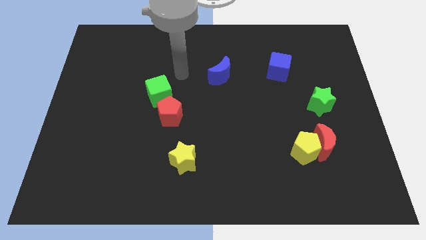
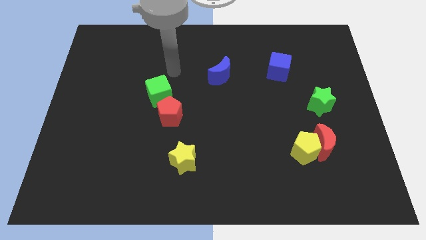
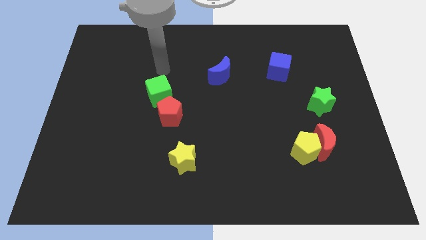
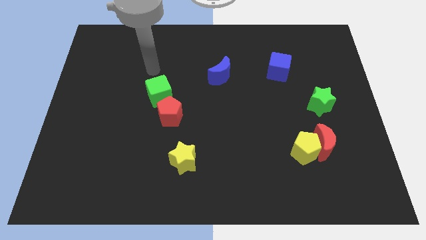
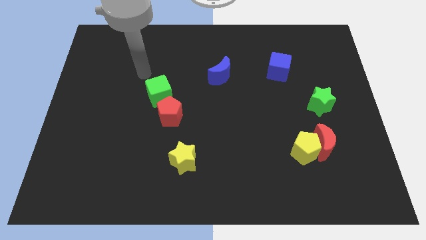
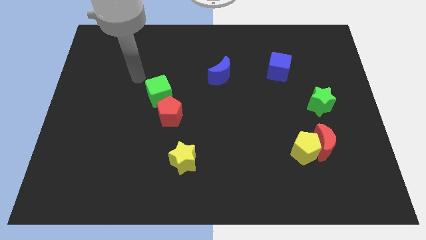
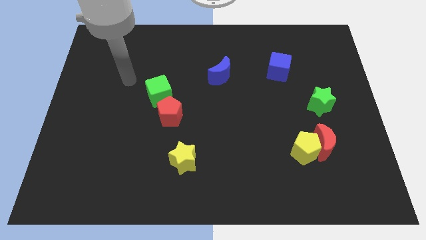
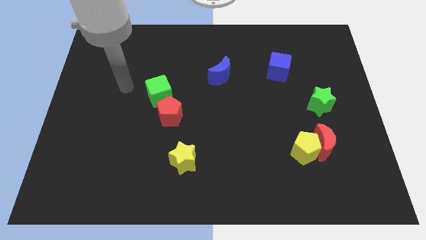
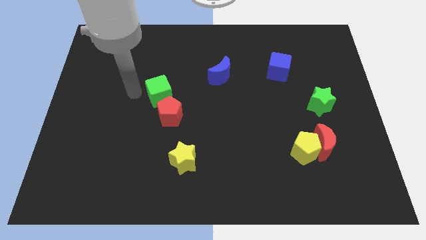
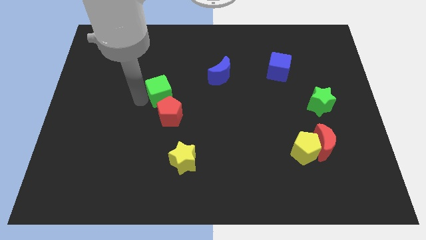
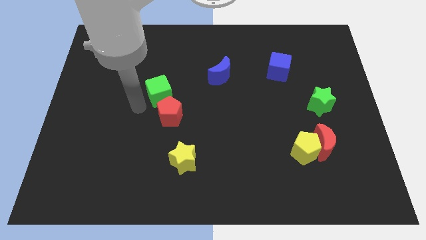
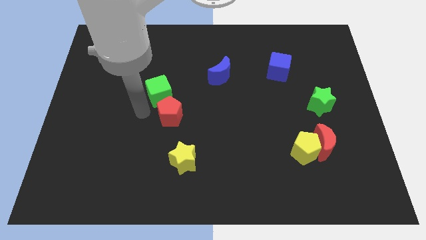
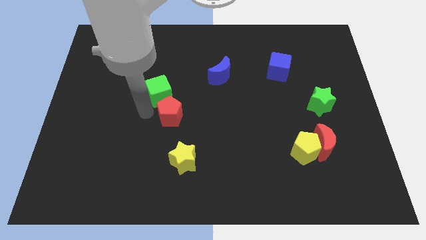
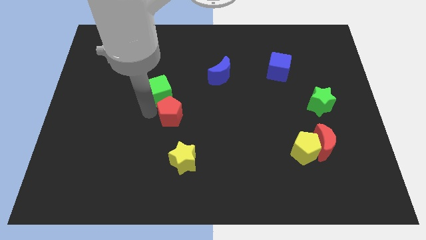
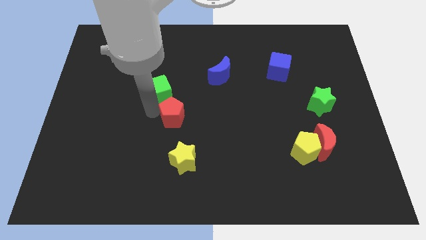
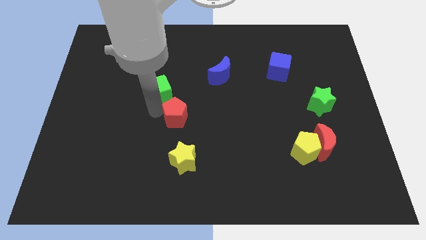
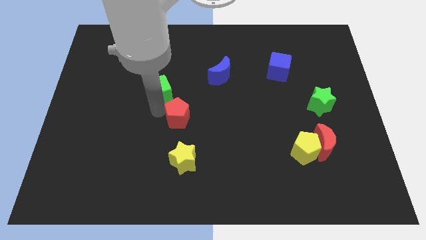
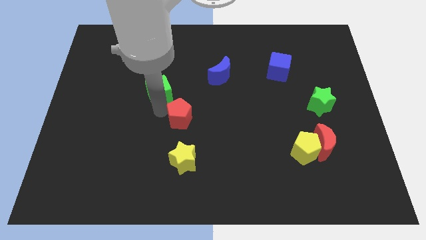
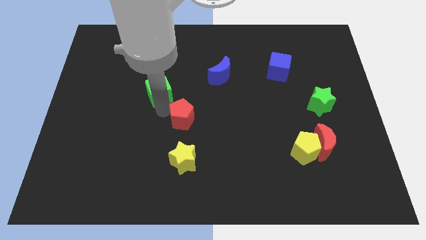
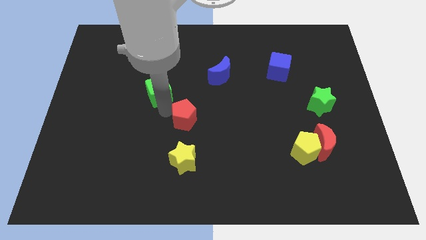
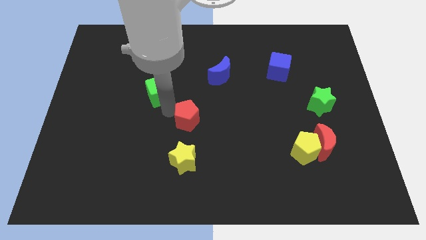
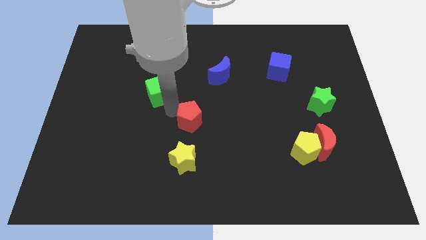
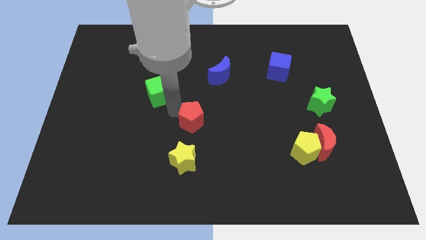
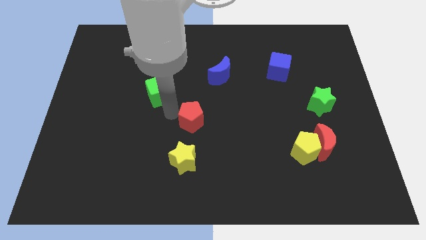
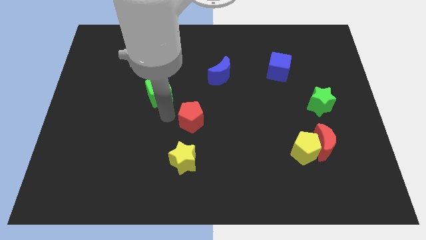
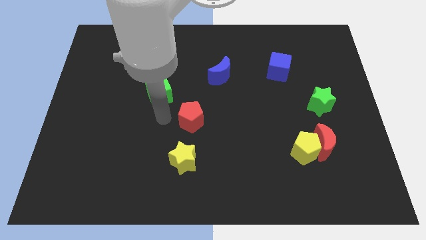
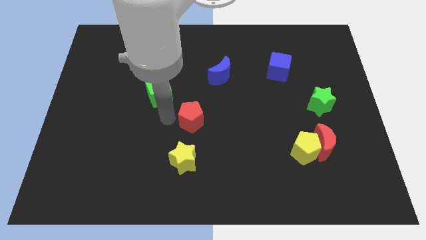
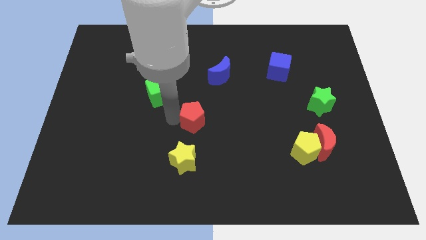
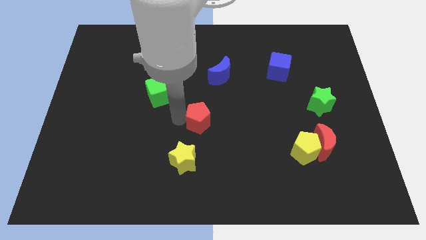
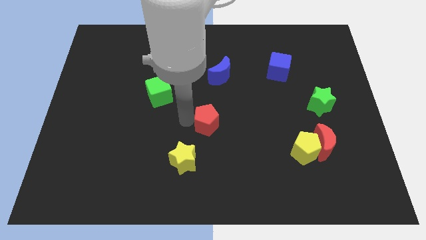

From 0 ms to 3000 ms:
push the red pentagon to the right a little bit

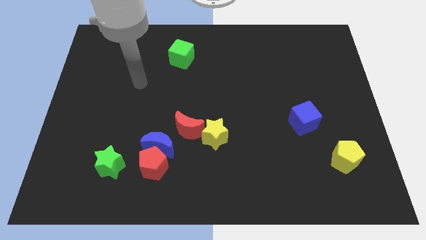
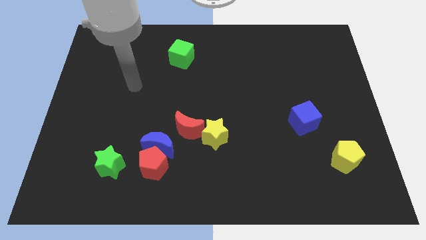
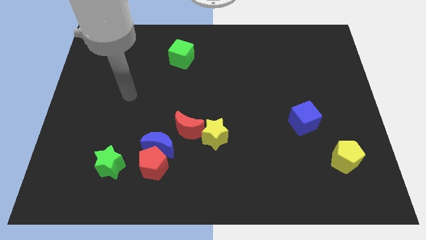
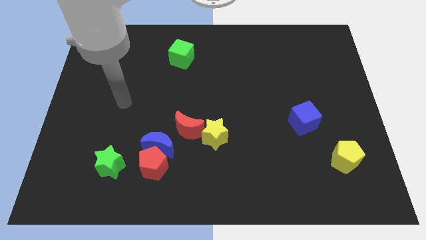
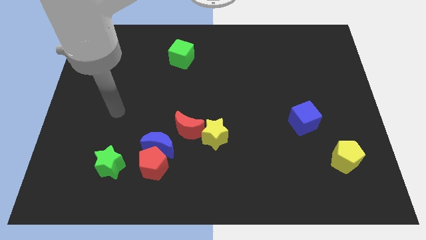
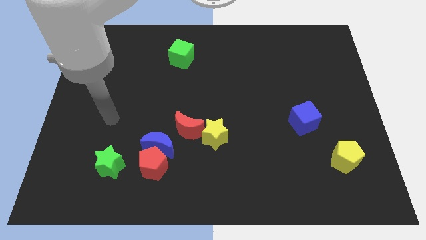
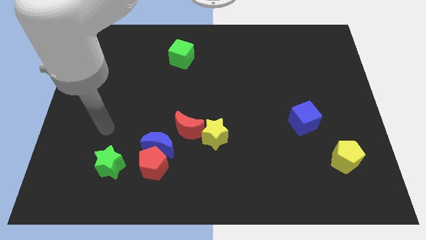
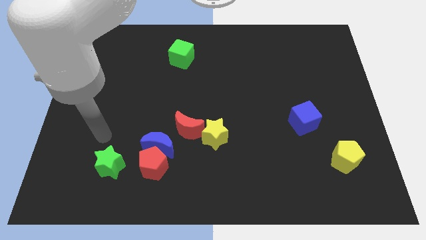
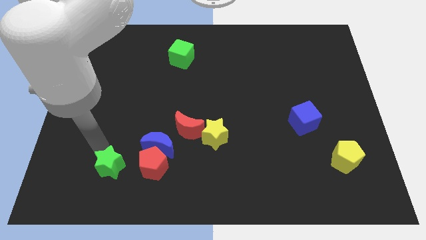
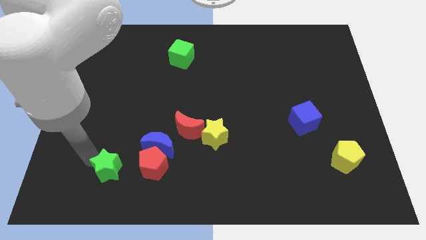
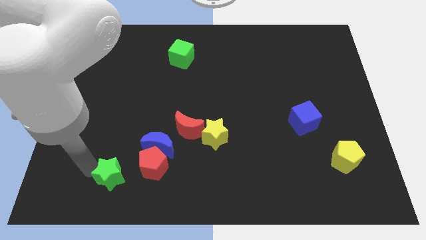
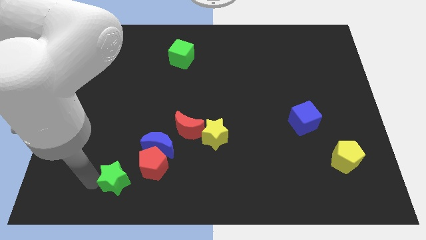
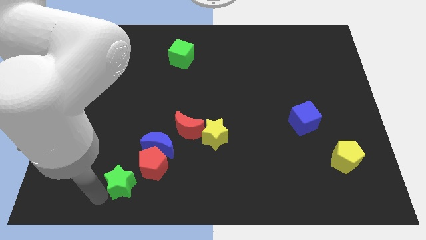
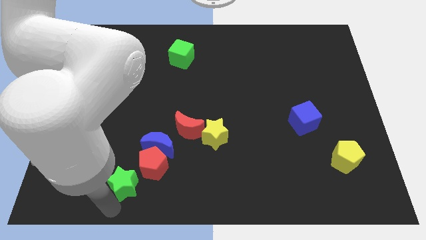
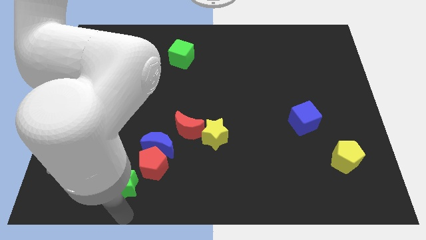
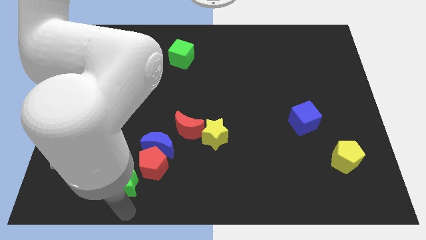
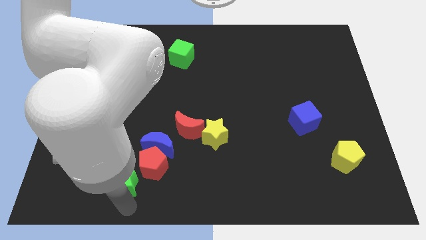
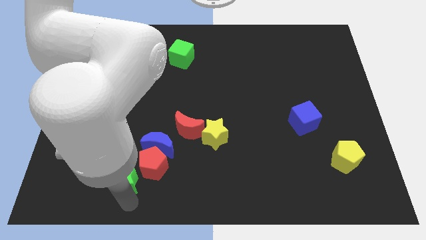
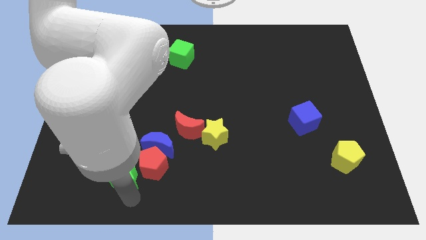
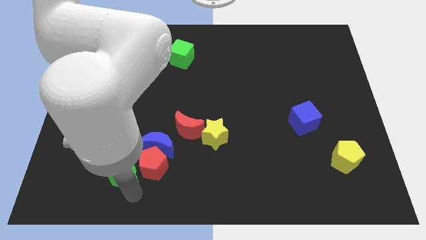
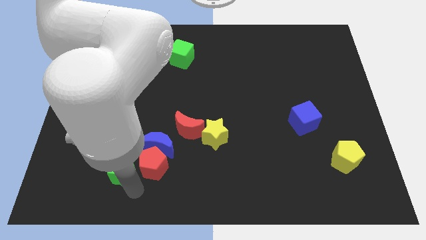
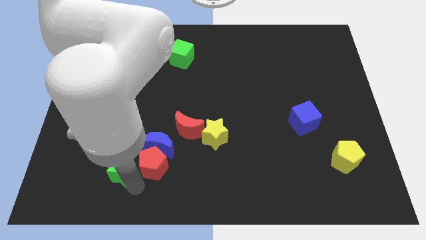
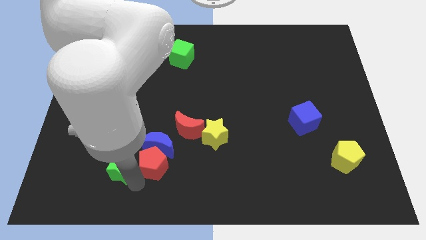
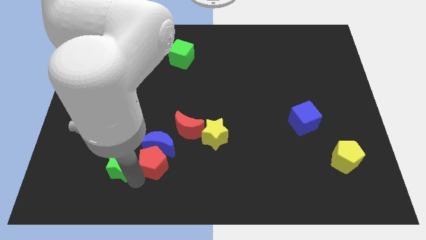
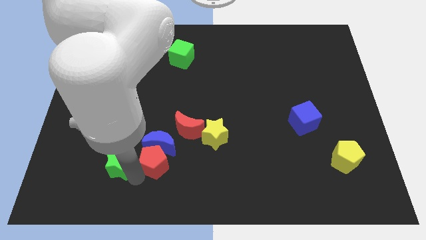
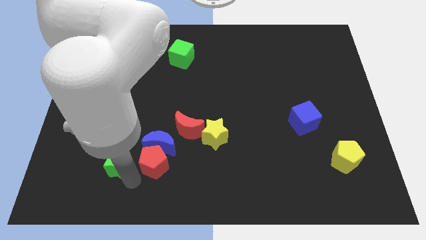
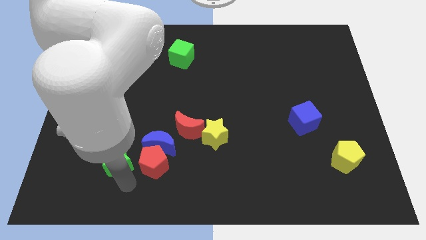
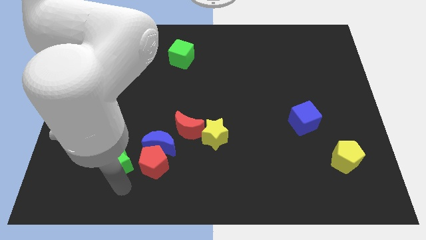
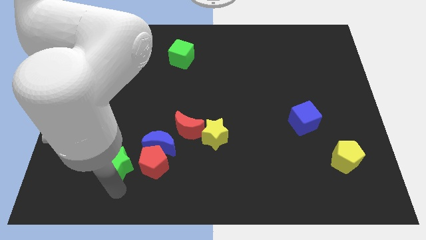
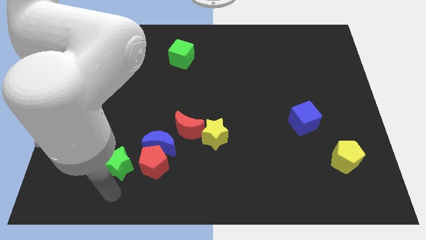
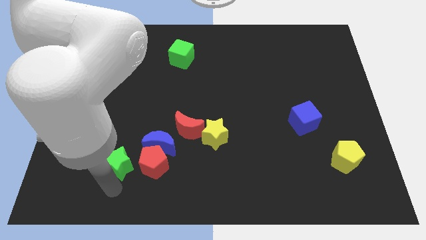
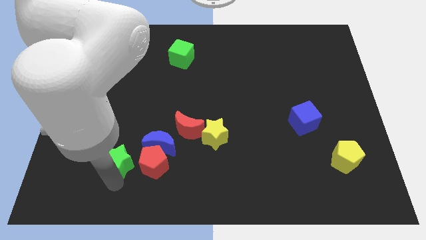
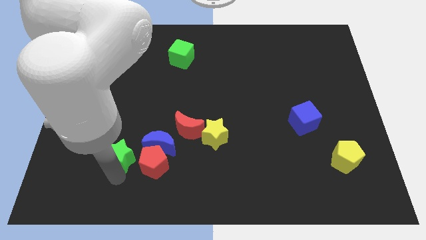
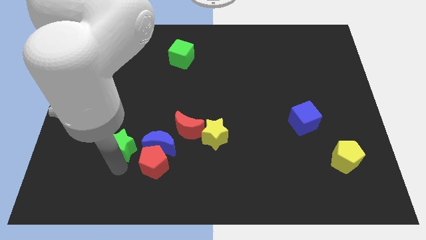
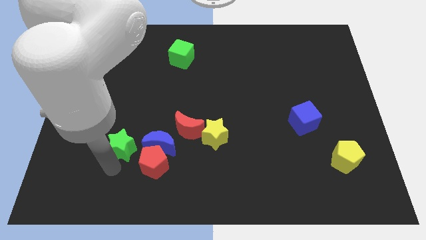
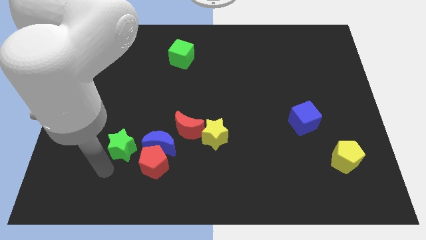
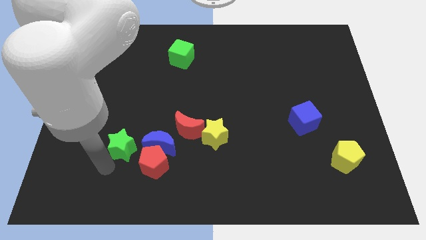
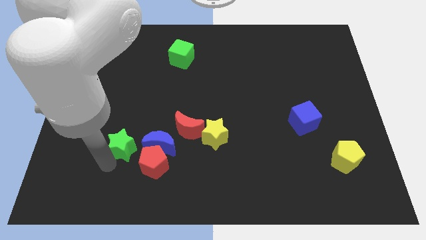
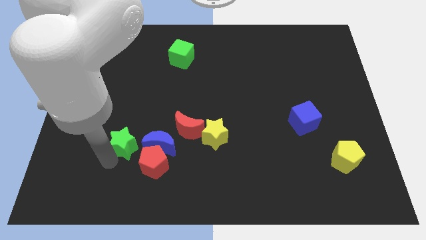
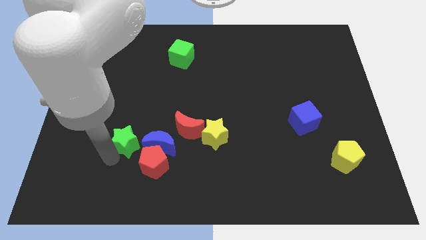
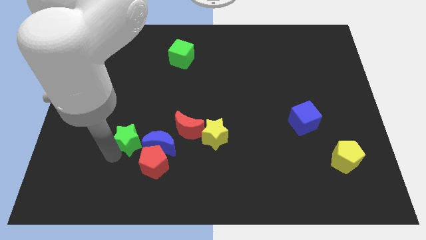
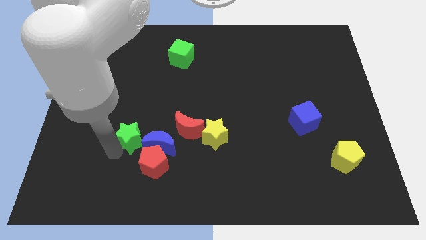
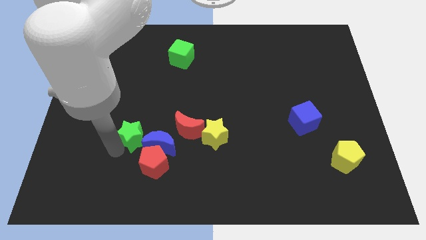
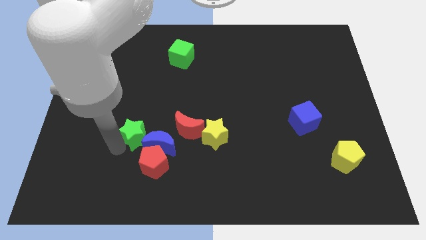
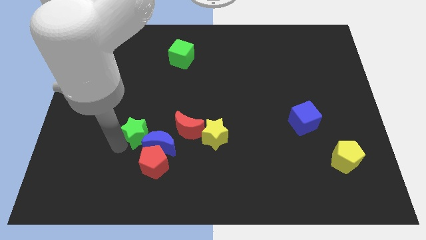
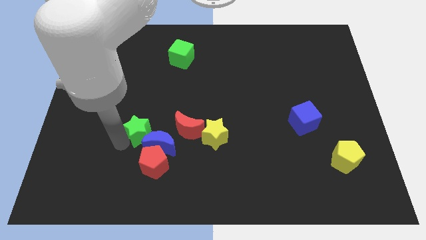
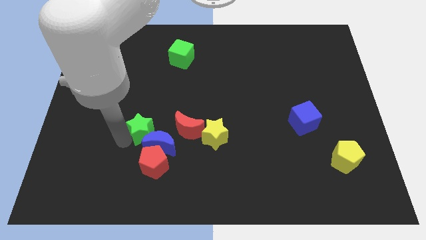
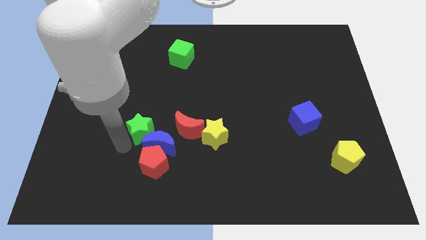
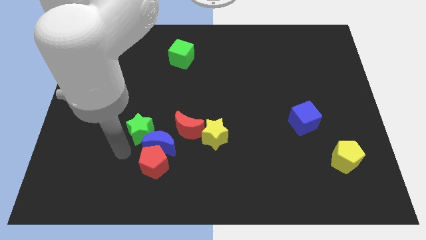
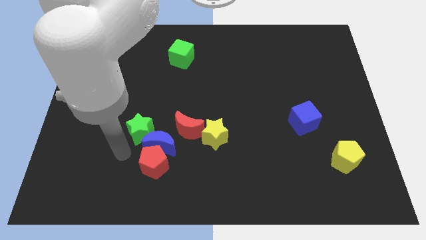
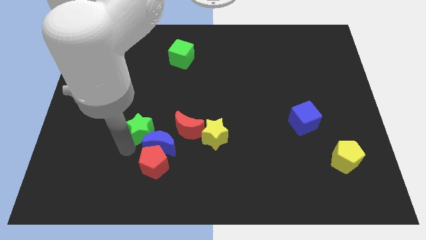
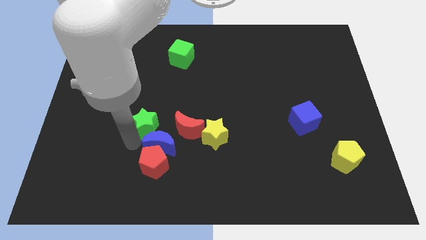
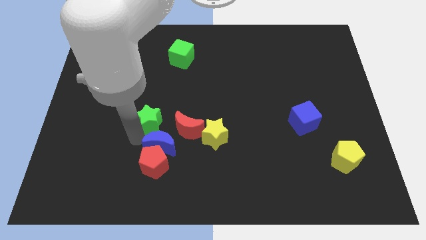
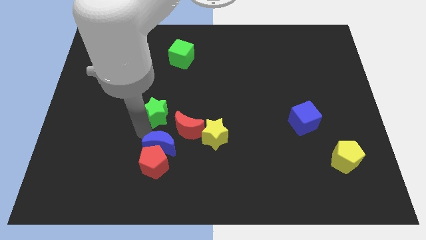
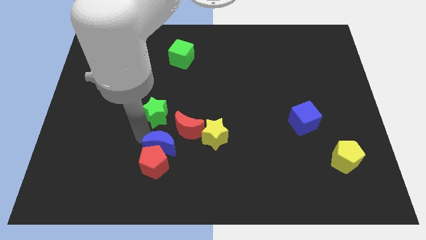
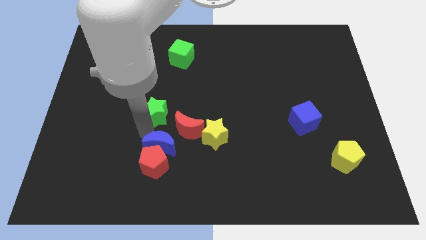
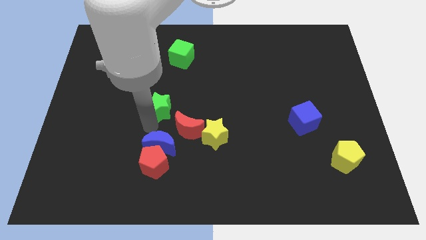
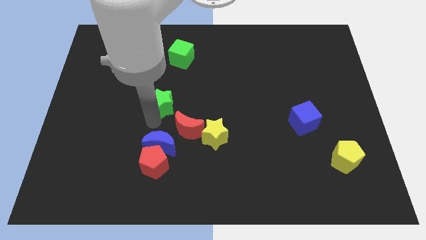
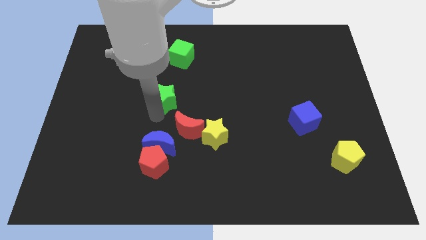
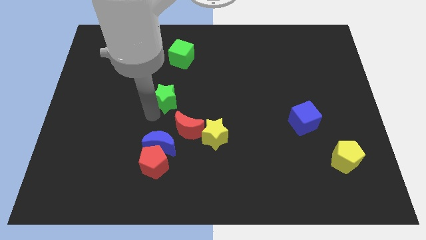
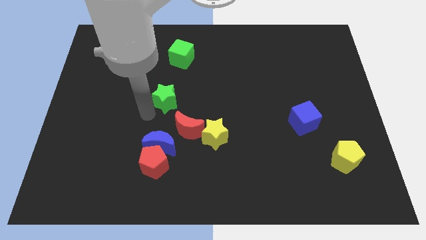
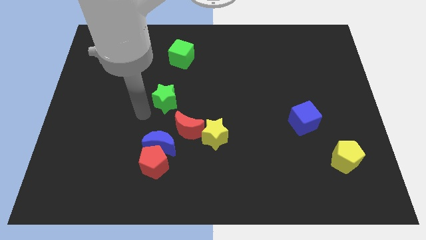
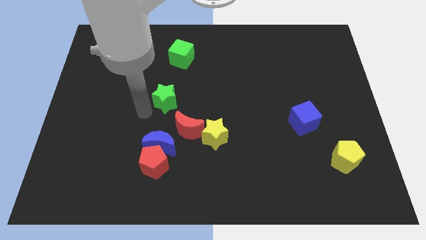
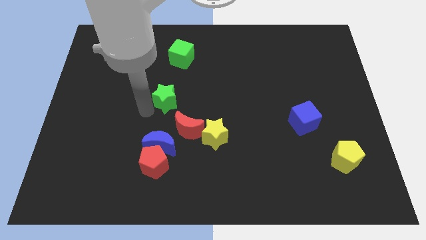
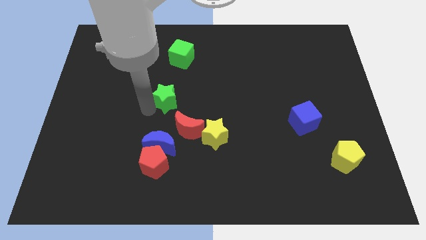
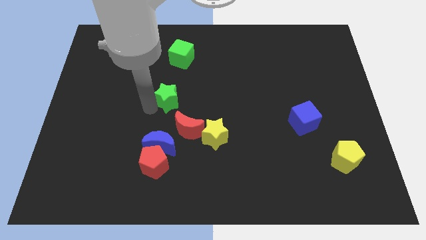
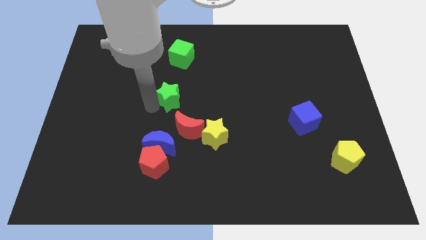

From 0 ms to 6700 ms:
move the green star up and then right
